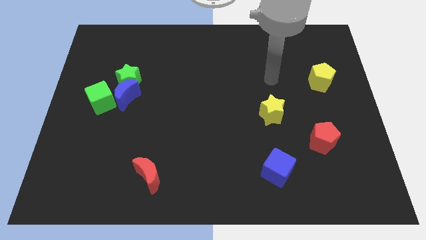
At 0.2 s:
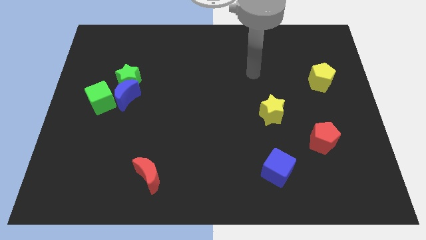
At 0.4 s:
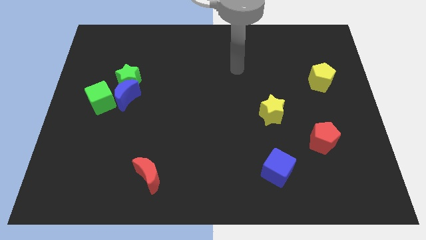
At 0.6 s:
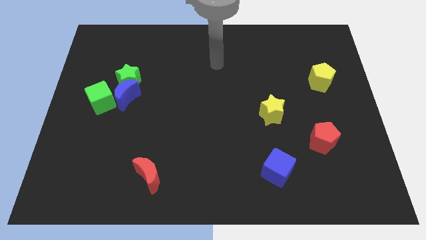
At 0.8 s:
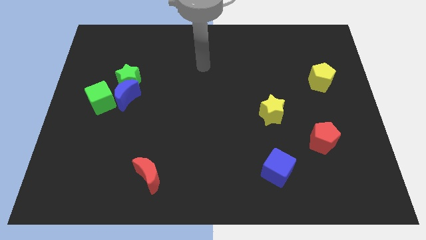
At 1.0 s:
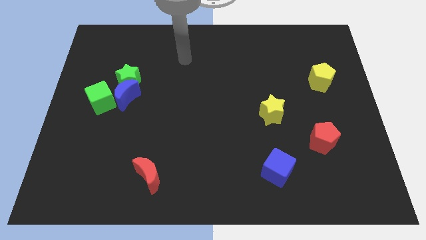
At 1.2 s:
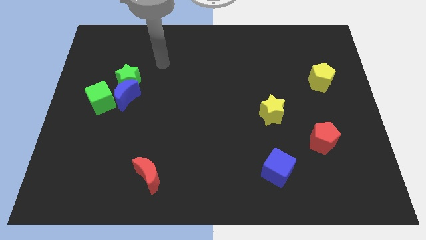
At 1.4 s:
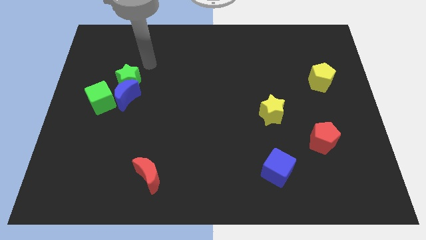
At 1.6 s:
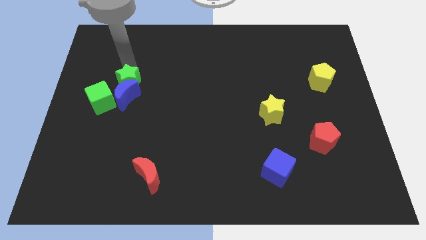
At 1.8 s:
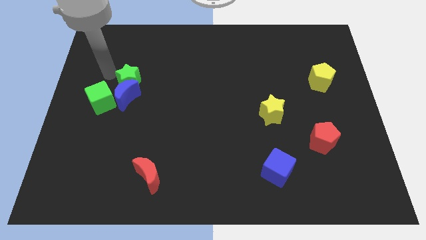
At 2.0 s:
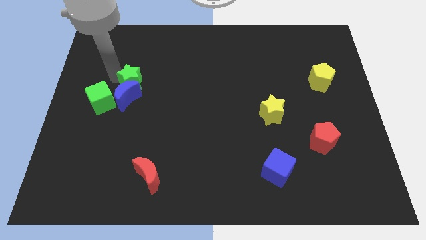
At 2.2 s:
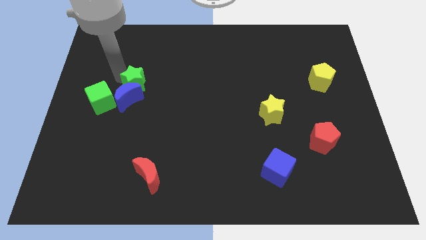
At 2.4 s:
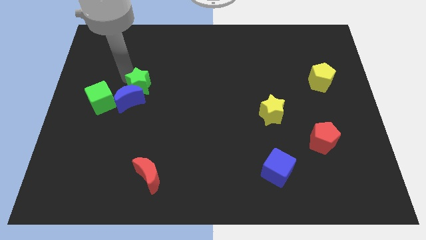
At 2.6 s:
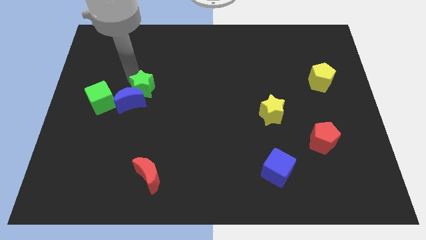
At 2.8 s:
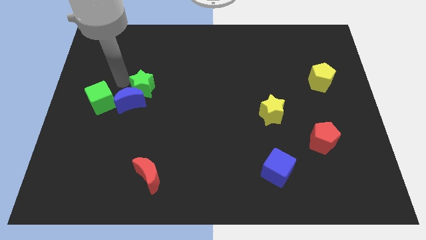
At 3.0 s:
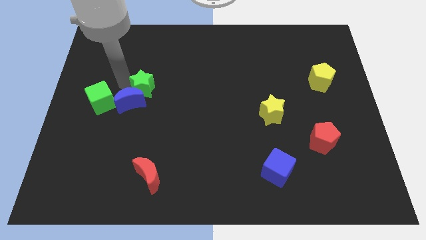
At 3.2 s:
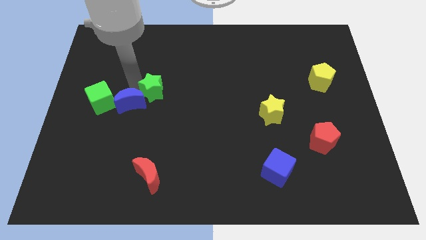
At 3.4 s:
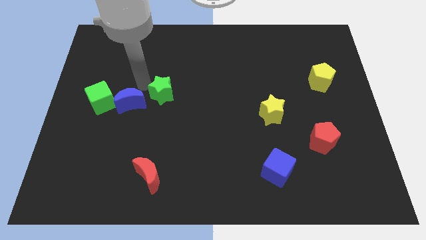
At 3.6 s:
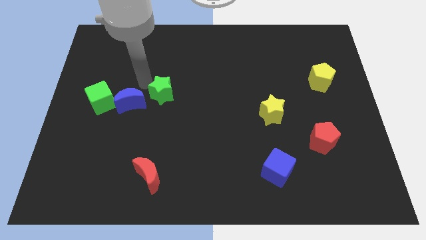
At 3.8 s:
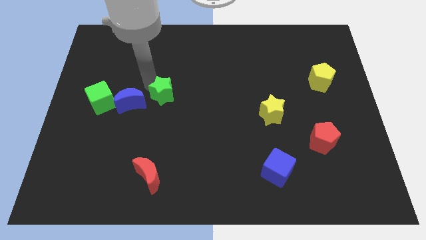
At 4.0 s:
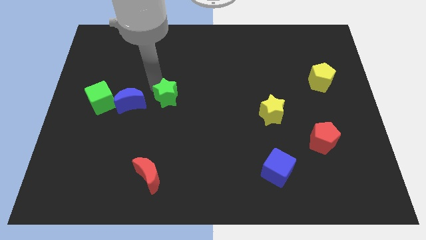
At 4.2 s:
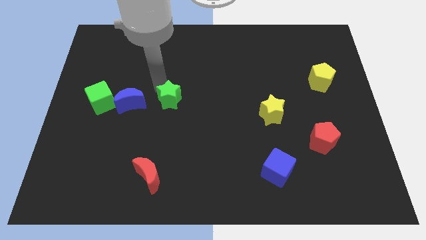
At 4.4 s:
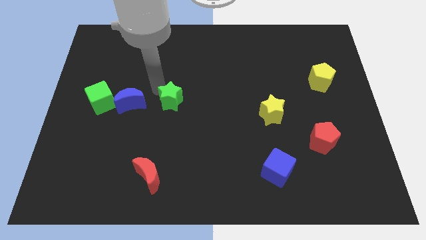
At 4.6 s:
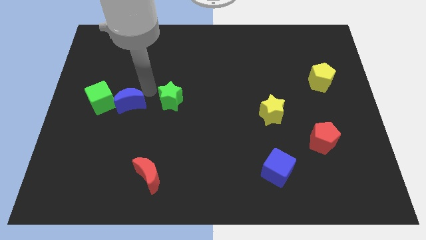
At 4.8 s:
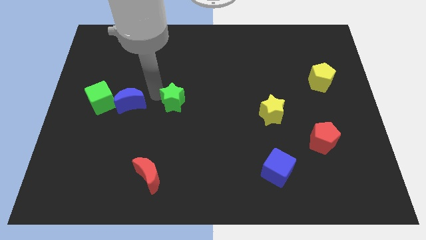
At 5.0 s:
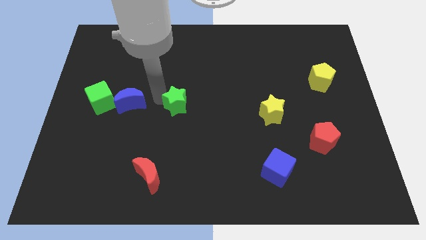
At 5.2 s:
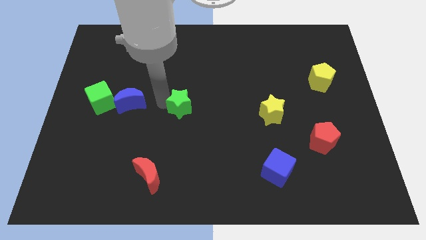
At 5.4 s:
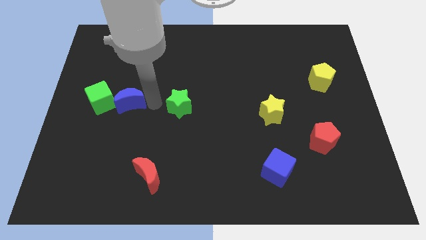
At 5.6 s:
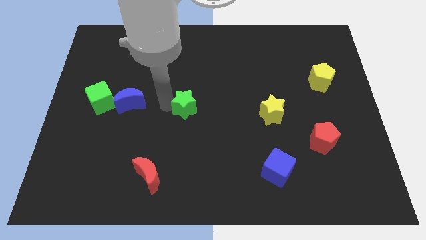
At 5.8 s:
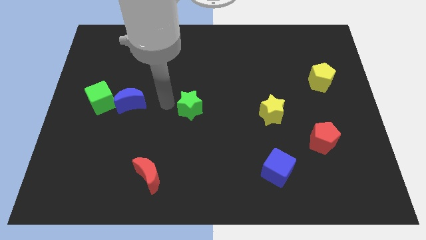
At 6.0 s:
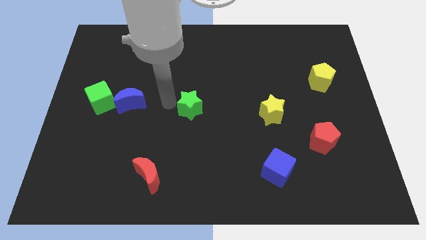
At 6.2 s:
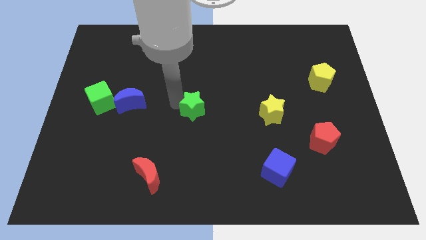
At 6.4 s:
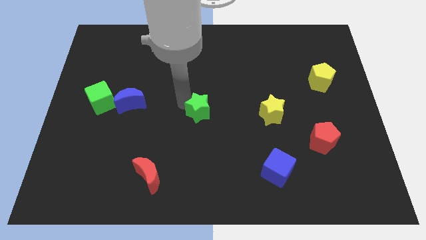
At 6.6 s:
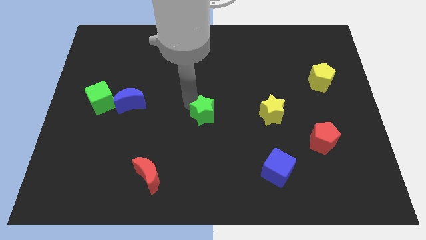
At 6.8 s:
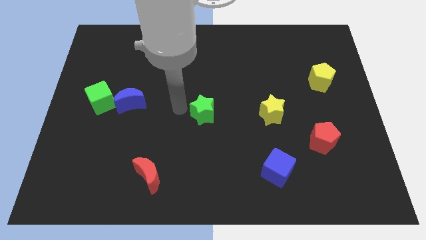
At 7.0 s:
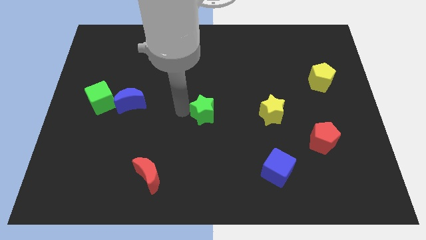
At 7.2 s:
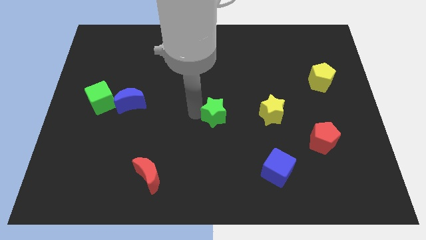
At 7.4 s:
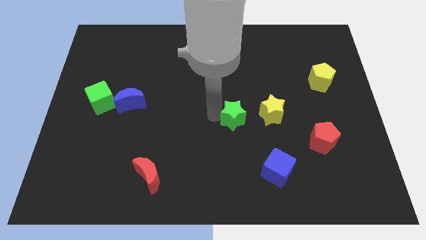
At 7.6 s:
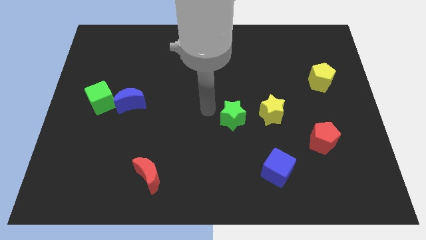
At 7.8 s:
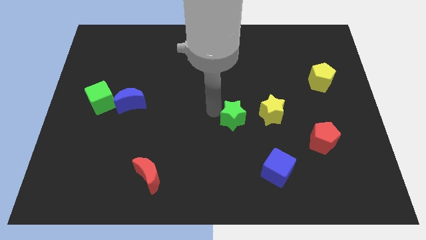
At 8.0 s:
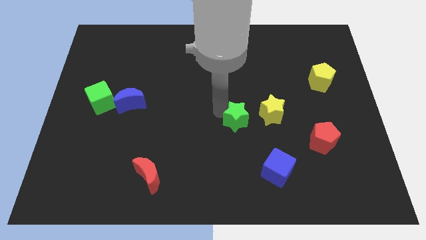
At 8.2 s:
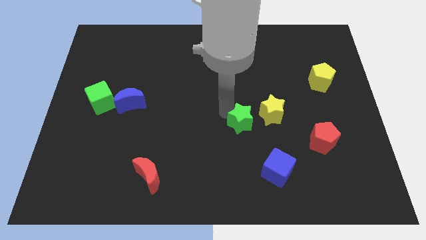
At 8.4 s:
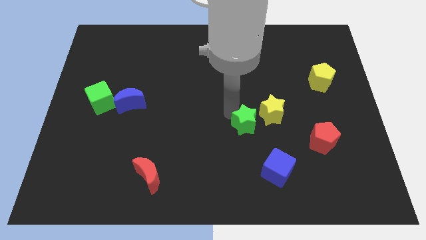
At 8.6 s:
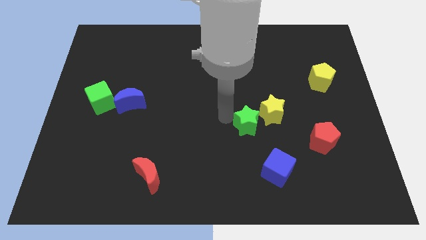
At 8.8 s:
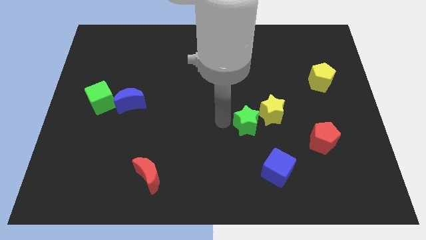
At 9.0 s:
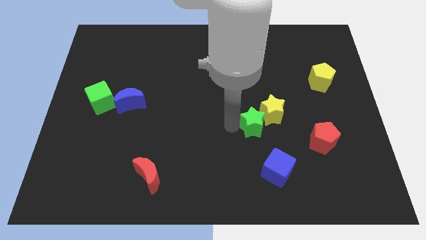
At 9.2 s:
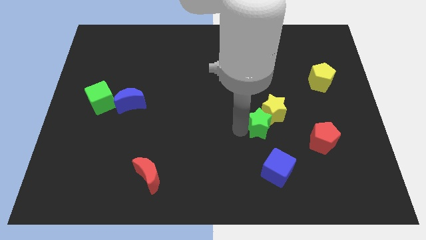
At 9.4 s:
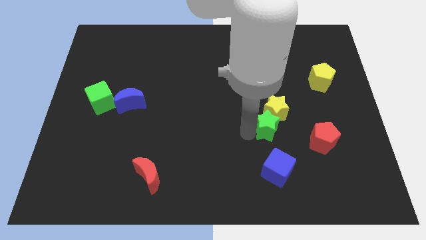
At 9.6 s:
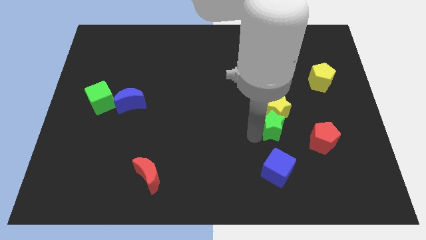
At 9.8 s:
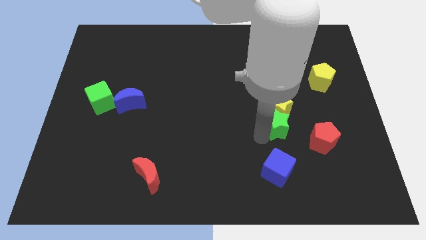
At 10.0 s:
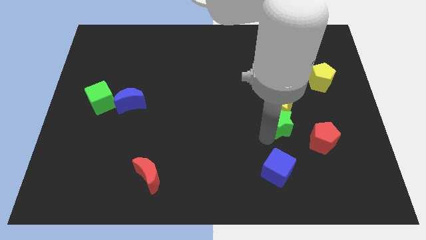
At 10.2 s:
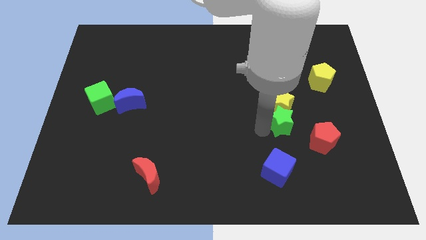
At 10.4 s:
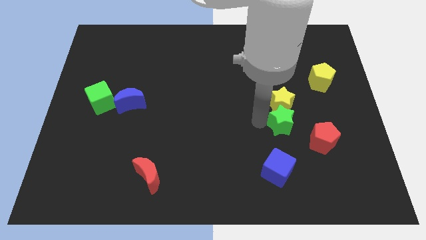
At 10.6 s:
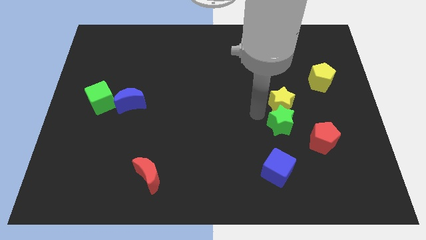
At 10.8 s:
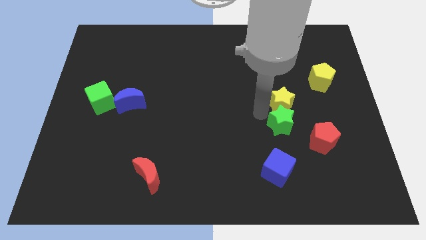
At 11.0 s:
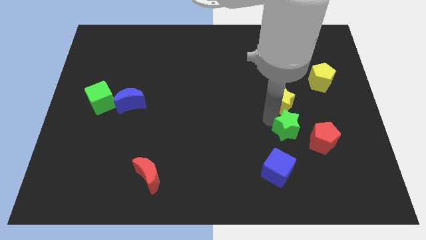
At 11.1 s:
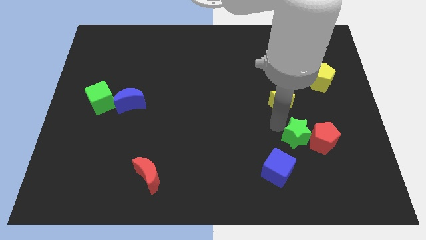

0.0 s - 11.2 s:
put the green star towards the red pentagon

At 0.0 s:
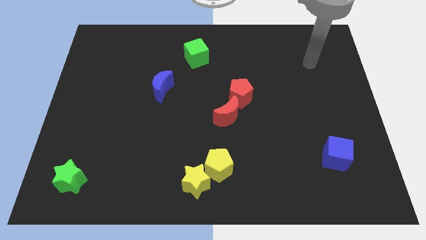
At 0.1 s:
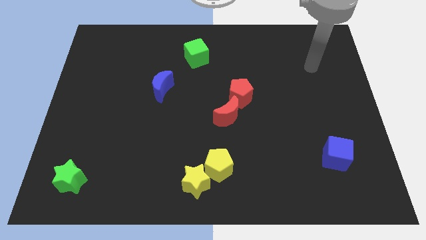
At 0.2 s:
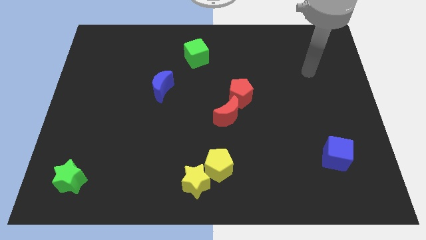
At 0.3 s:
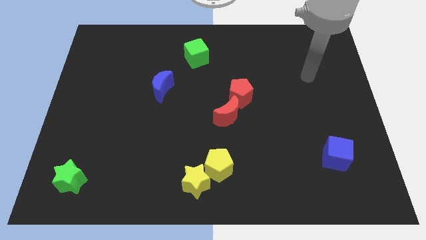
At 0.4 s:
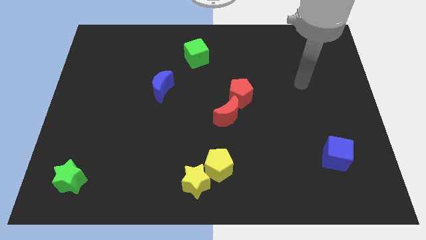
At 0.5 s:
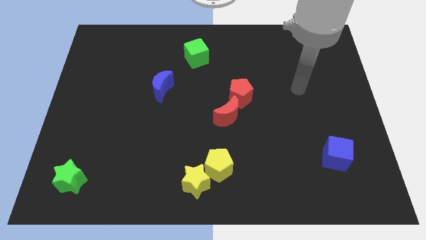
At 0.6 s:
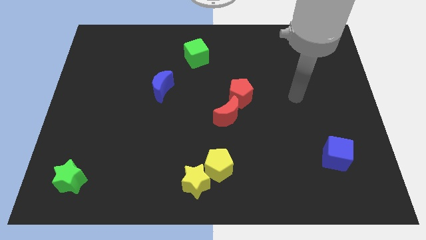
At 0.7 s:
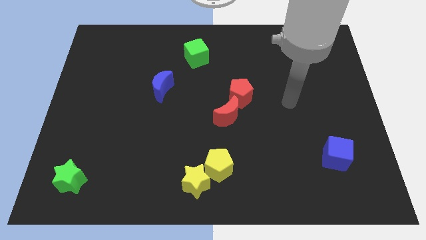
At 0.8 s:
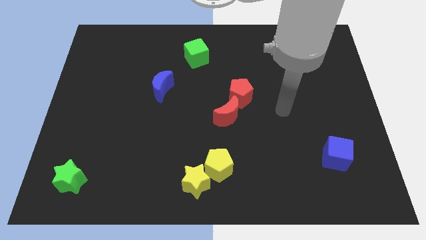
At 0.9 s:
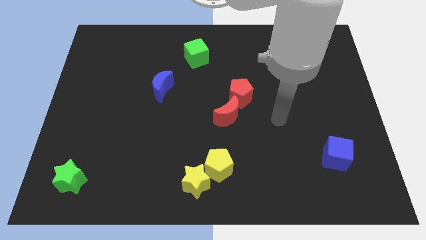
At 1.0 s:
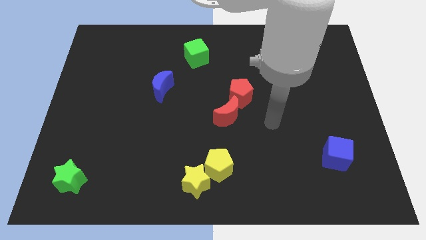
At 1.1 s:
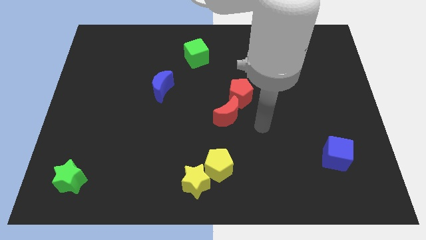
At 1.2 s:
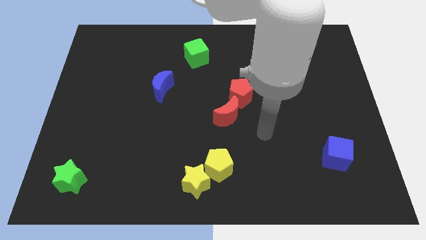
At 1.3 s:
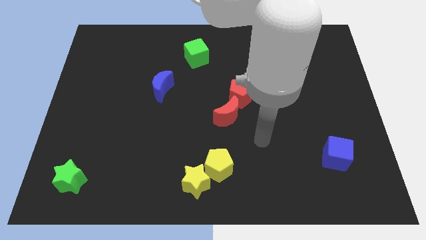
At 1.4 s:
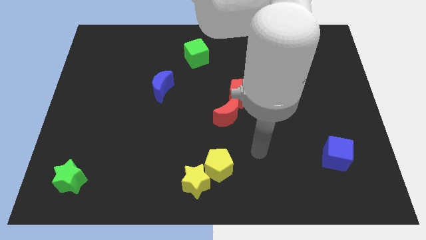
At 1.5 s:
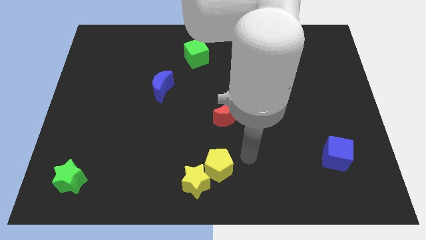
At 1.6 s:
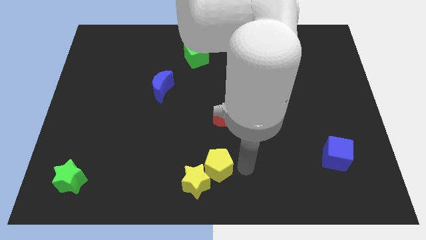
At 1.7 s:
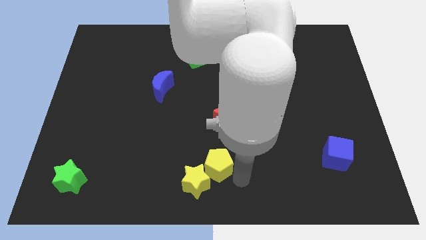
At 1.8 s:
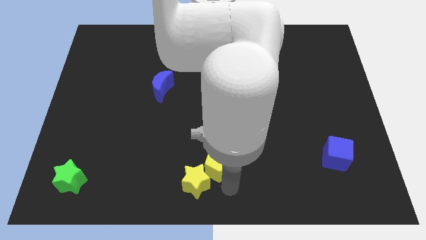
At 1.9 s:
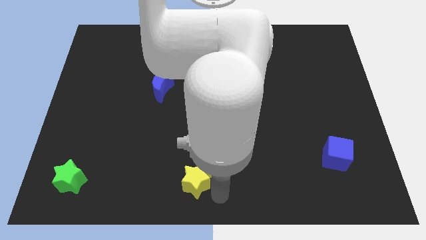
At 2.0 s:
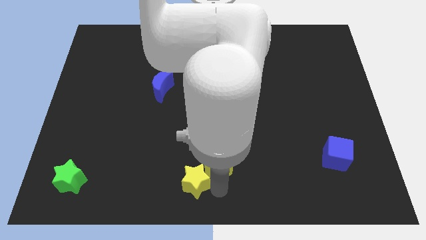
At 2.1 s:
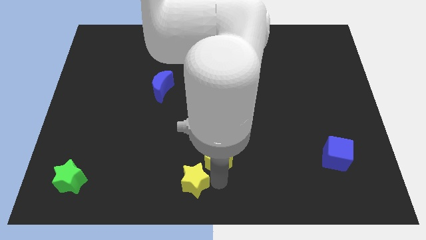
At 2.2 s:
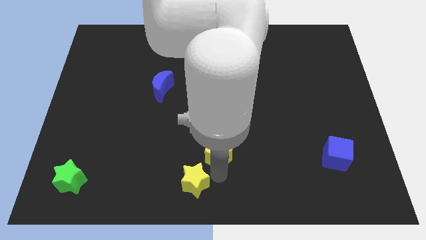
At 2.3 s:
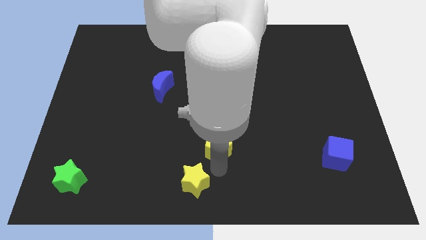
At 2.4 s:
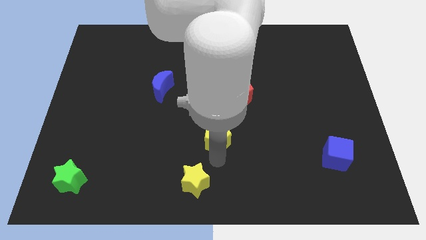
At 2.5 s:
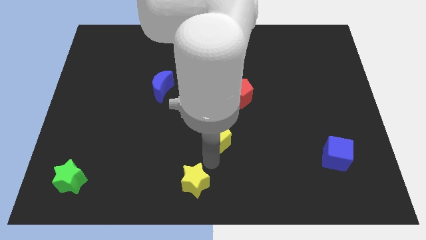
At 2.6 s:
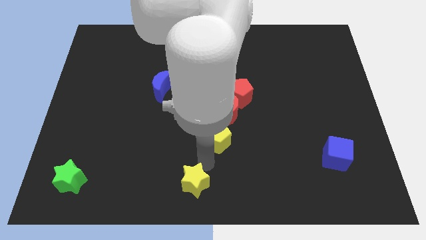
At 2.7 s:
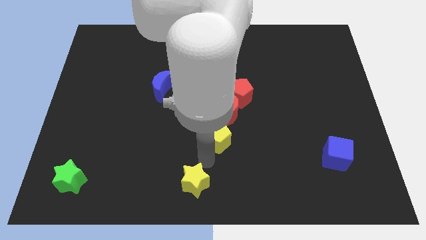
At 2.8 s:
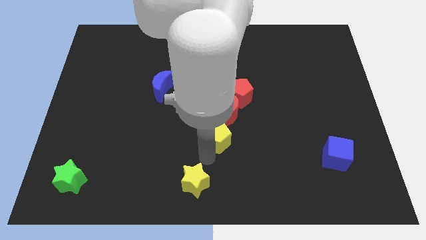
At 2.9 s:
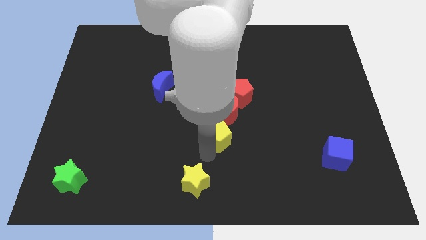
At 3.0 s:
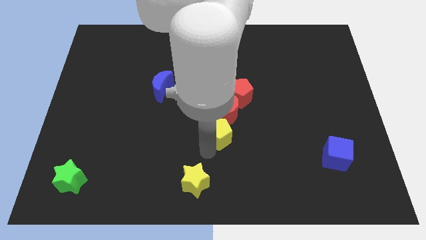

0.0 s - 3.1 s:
put the yellow pentagon to the red moon
